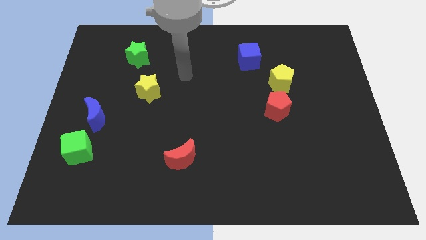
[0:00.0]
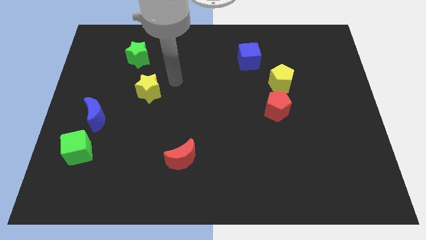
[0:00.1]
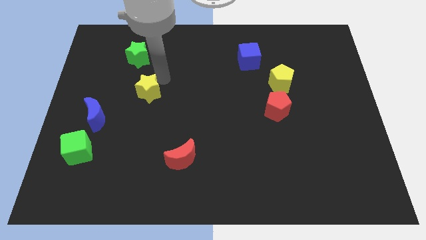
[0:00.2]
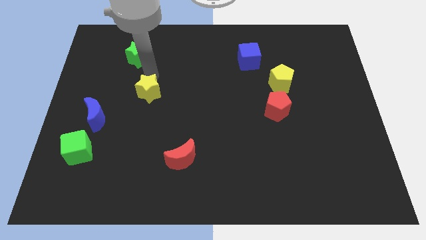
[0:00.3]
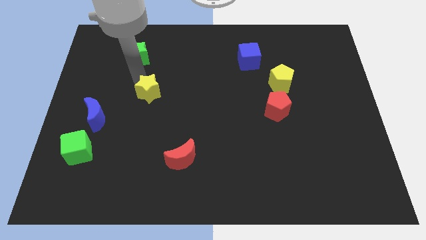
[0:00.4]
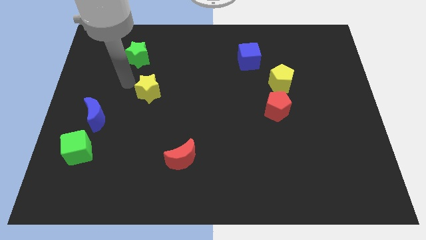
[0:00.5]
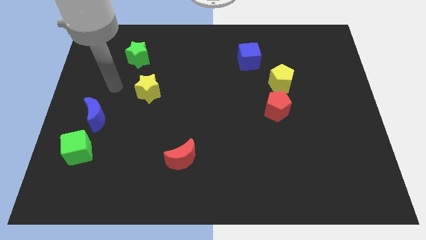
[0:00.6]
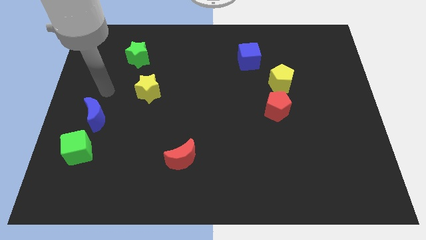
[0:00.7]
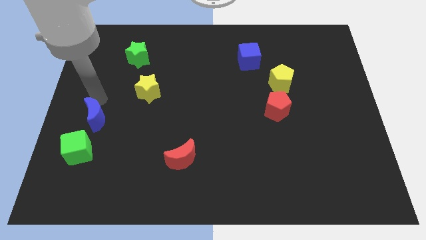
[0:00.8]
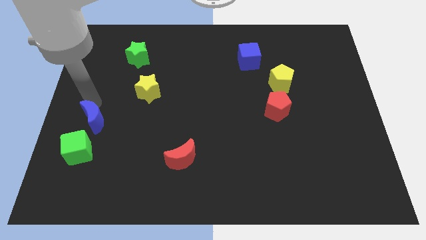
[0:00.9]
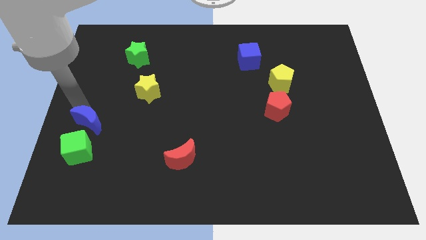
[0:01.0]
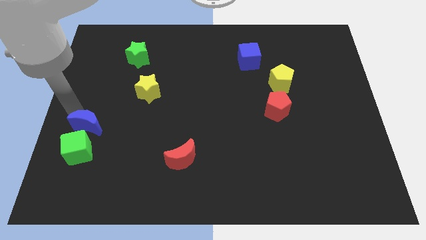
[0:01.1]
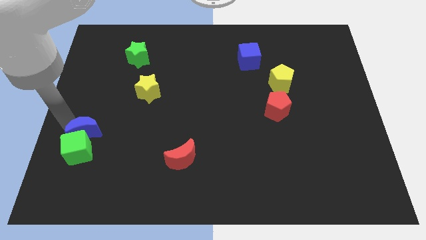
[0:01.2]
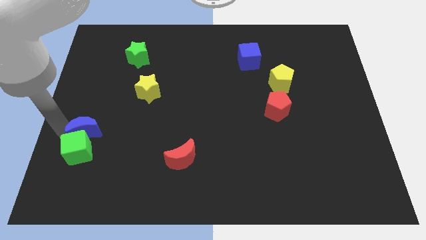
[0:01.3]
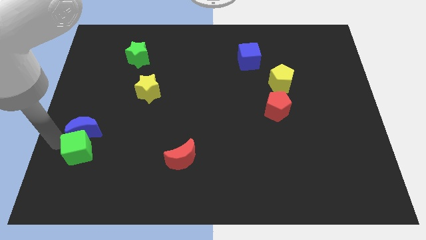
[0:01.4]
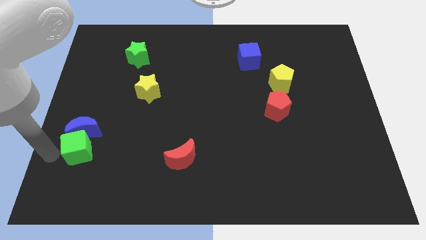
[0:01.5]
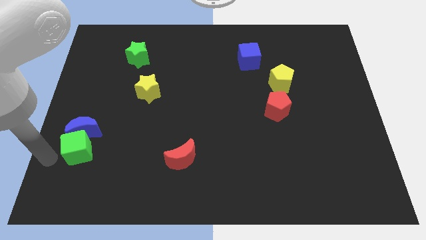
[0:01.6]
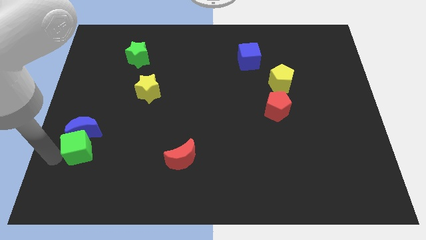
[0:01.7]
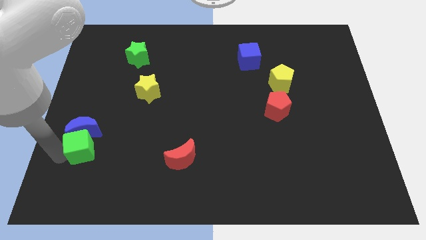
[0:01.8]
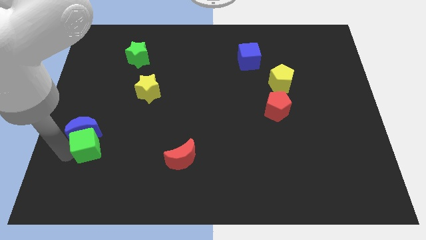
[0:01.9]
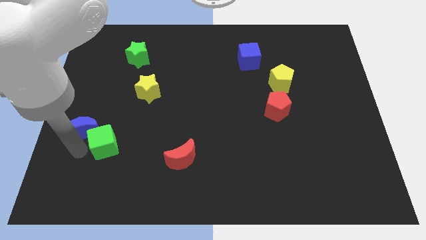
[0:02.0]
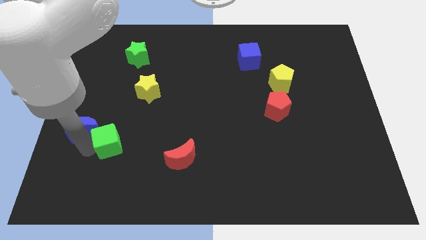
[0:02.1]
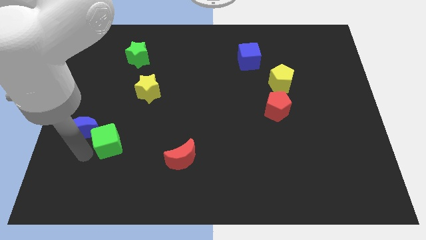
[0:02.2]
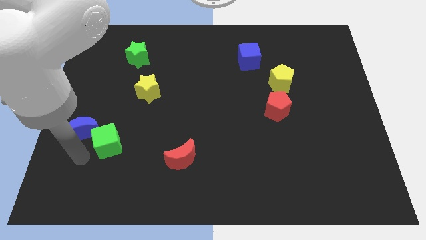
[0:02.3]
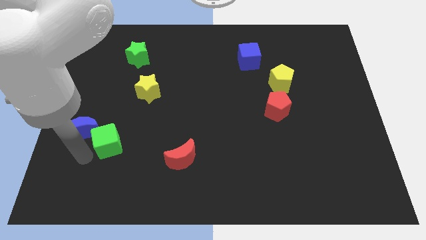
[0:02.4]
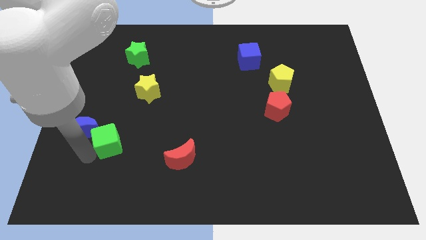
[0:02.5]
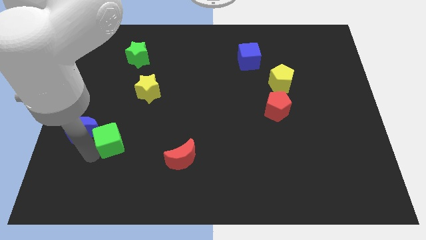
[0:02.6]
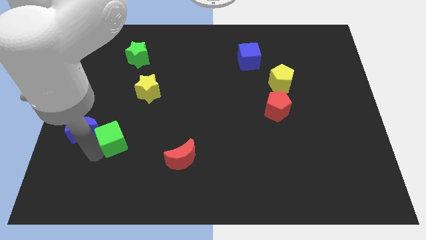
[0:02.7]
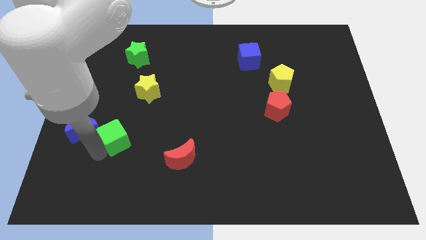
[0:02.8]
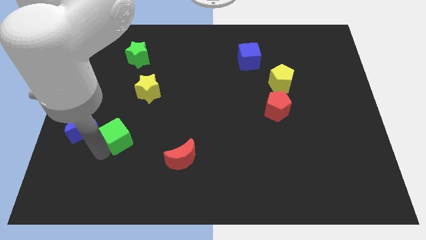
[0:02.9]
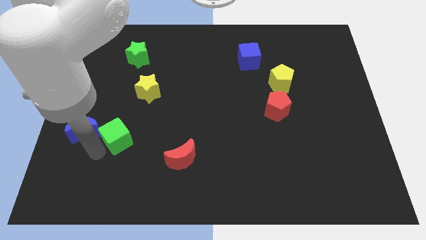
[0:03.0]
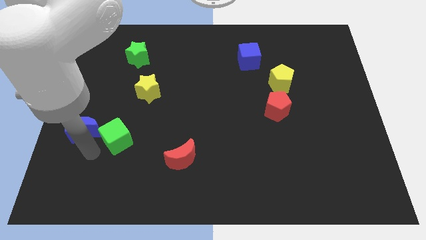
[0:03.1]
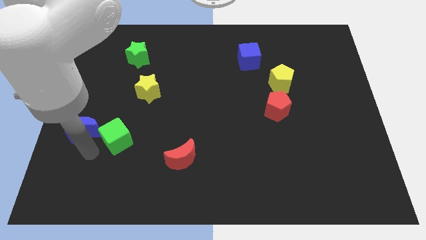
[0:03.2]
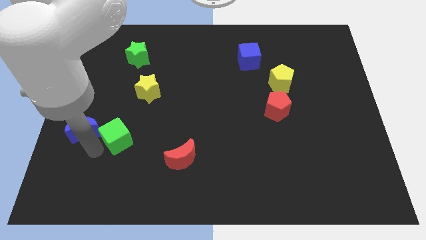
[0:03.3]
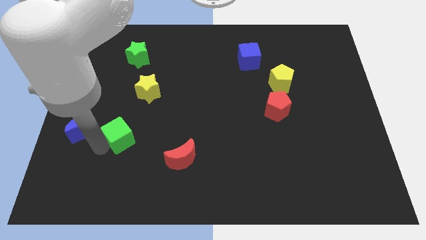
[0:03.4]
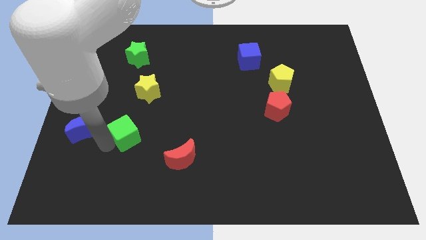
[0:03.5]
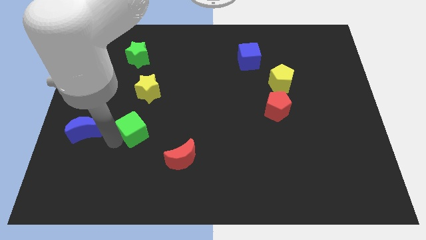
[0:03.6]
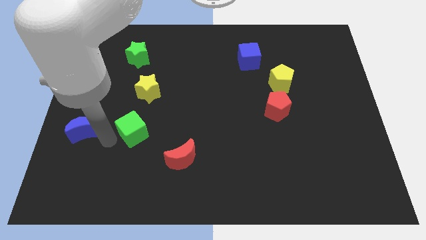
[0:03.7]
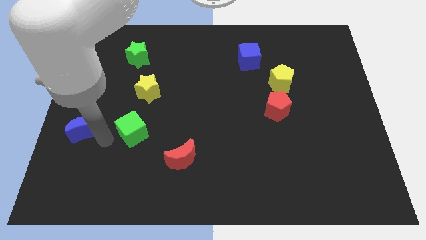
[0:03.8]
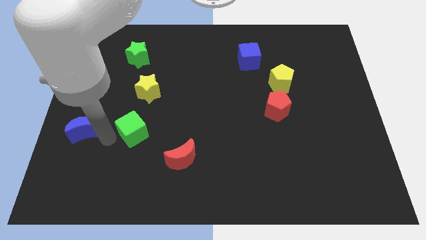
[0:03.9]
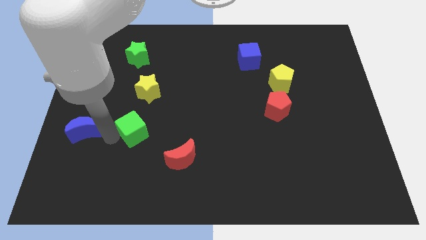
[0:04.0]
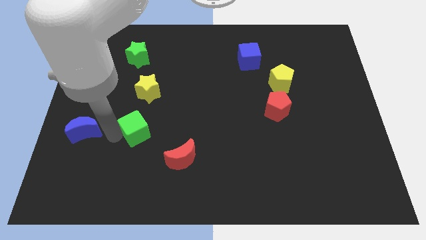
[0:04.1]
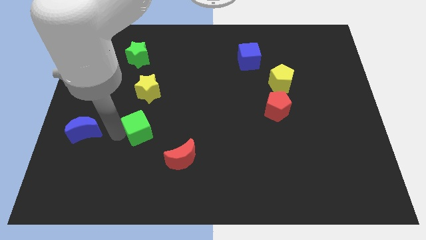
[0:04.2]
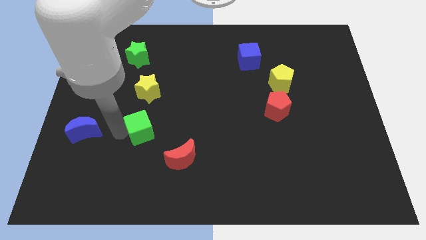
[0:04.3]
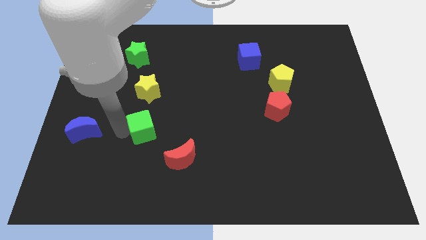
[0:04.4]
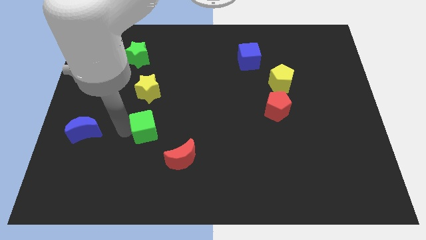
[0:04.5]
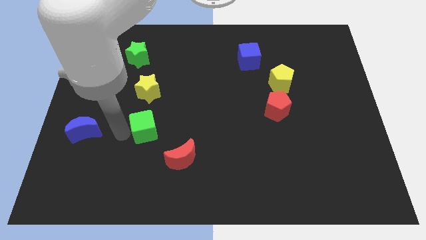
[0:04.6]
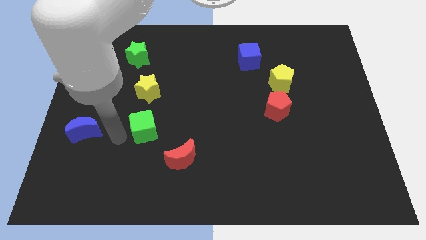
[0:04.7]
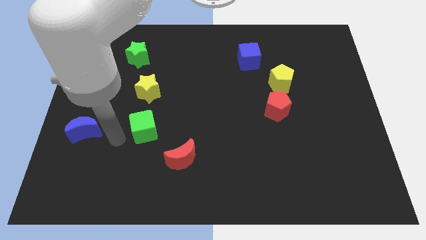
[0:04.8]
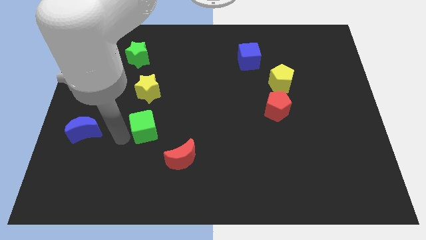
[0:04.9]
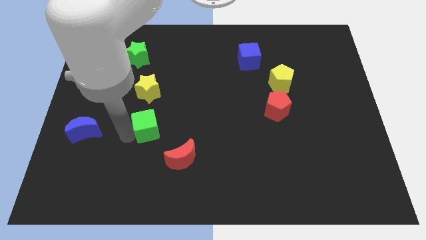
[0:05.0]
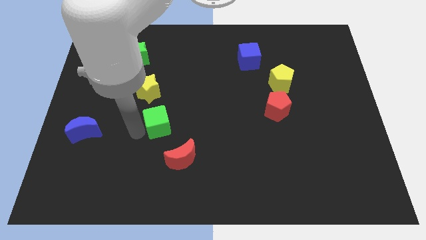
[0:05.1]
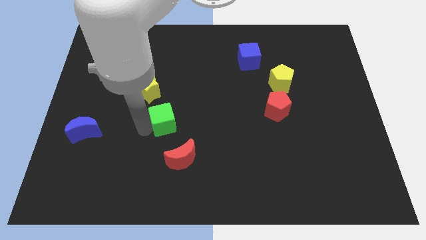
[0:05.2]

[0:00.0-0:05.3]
slide the green cube to the top side of the red moon

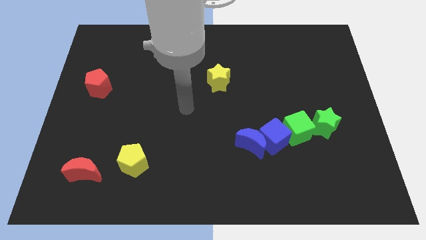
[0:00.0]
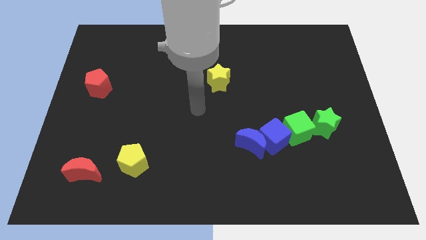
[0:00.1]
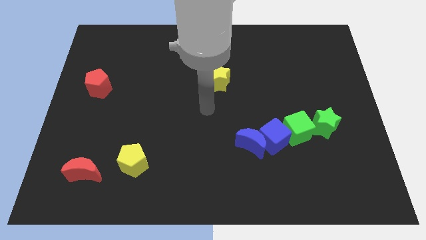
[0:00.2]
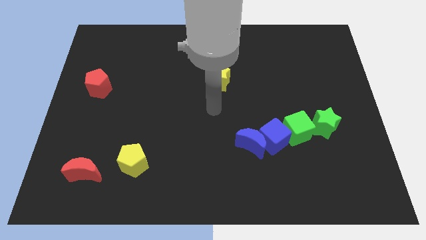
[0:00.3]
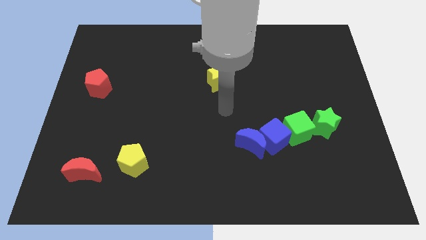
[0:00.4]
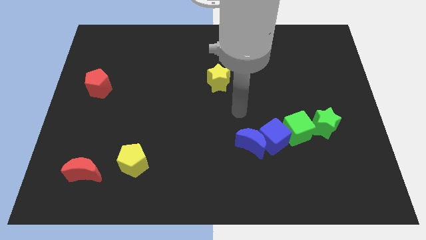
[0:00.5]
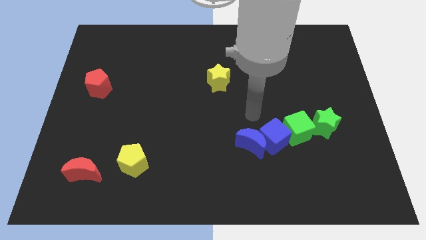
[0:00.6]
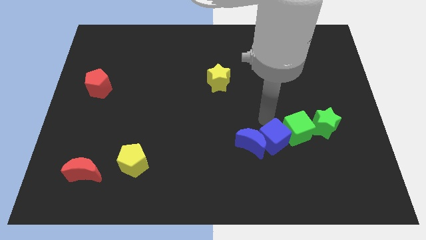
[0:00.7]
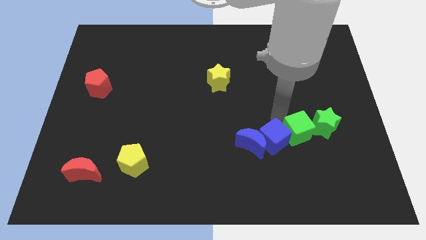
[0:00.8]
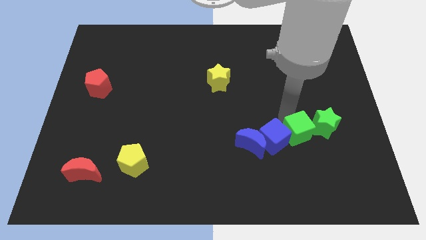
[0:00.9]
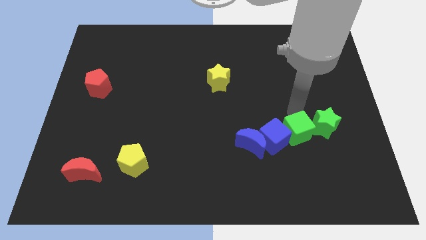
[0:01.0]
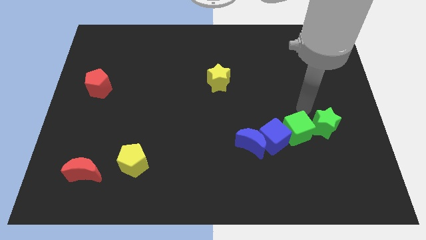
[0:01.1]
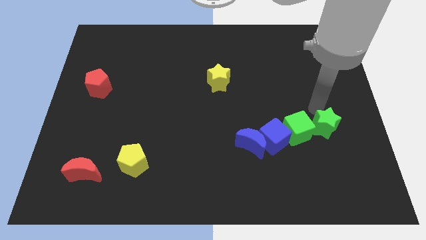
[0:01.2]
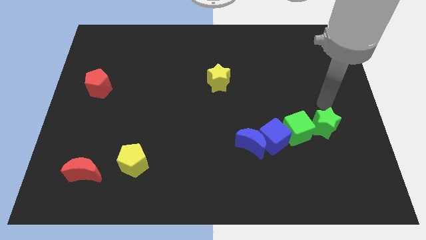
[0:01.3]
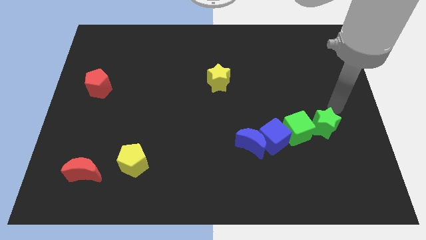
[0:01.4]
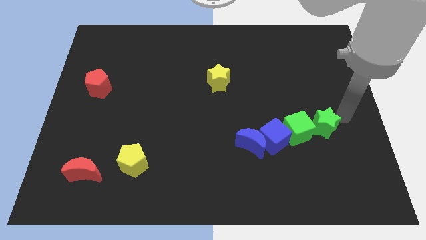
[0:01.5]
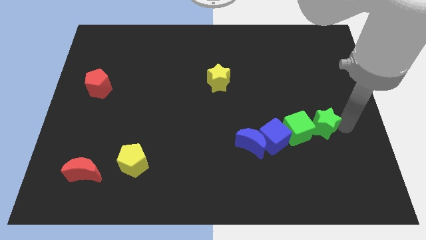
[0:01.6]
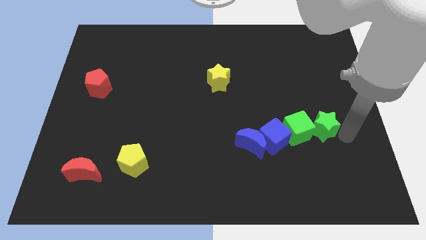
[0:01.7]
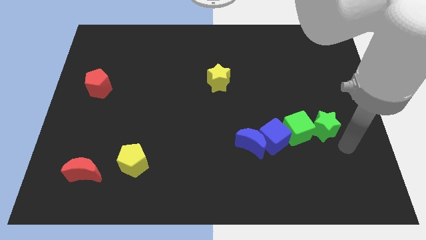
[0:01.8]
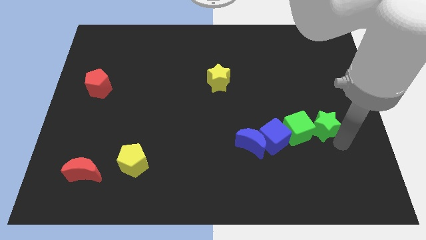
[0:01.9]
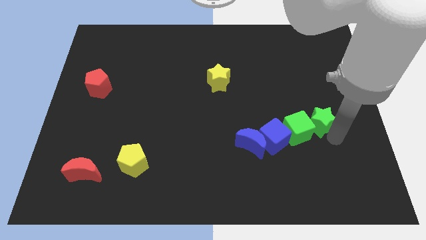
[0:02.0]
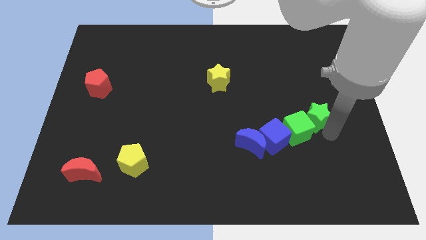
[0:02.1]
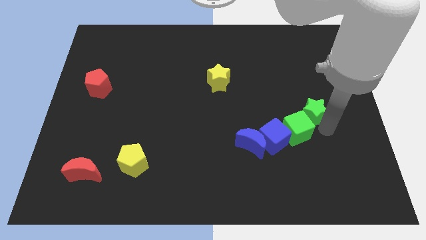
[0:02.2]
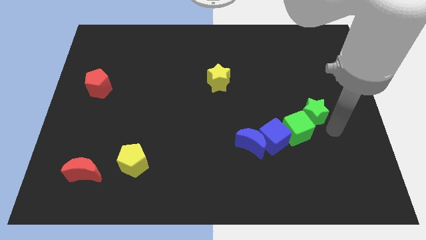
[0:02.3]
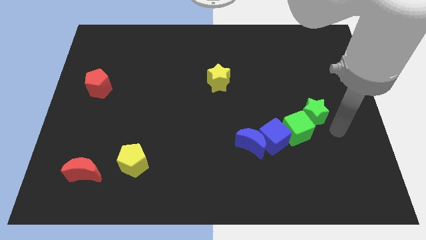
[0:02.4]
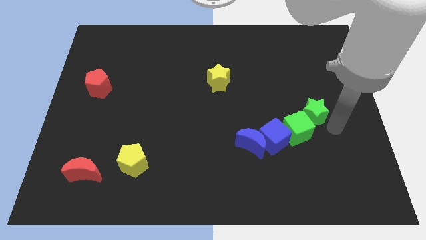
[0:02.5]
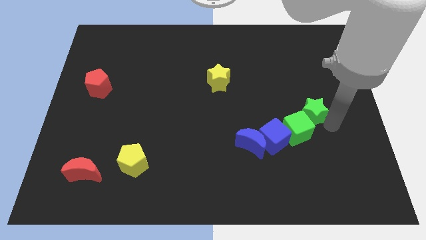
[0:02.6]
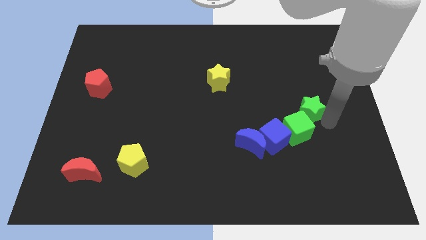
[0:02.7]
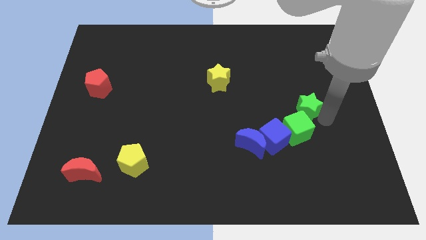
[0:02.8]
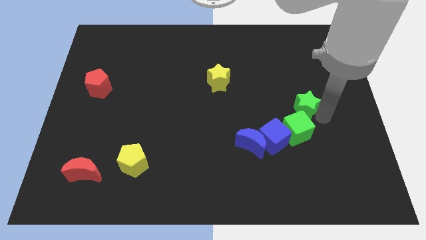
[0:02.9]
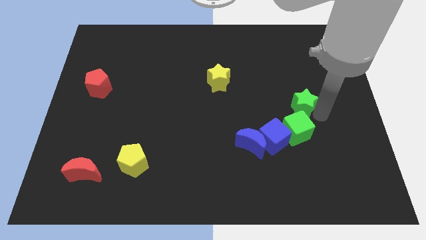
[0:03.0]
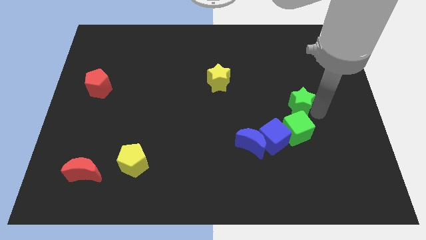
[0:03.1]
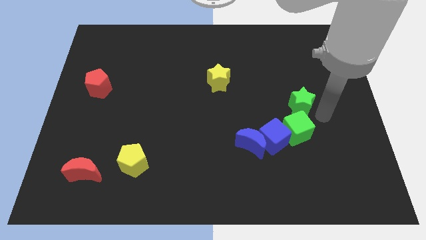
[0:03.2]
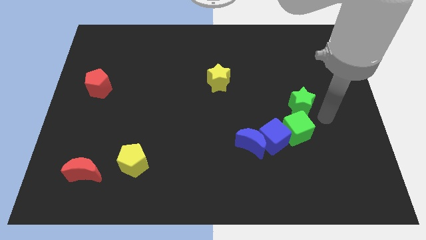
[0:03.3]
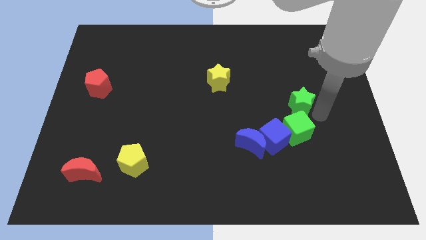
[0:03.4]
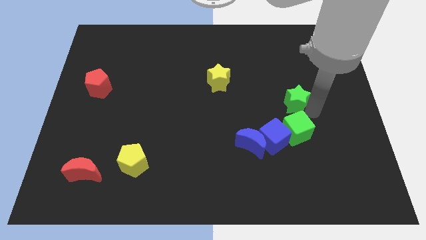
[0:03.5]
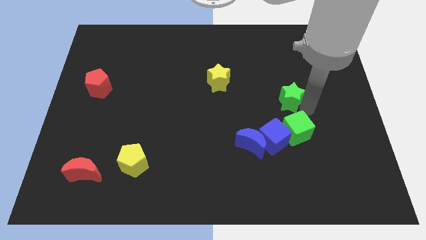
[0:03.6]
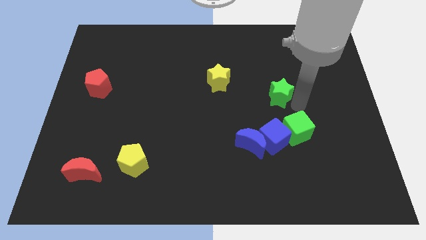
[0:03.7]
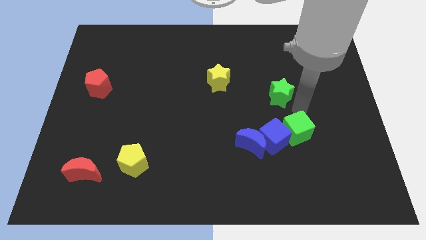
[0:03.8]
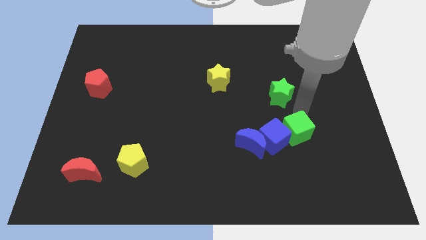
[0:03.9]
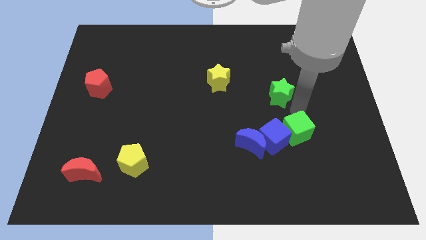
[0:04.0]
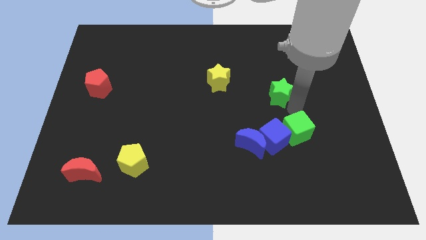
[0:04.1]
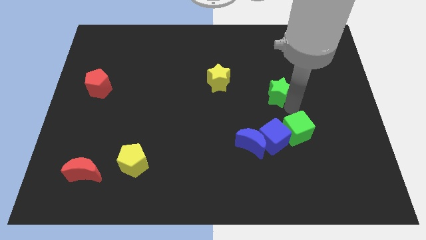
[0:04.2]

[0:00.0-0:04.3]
push the green star just right of the yellow star
